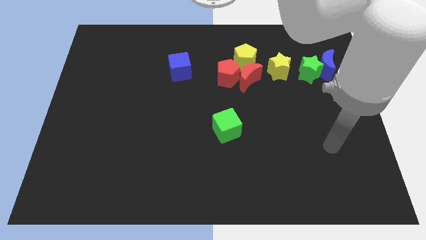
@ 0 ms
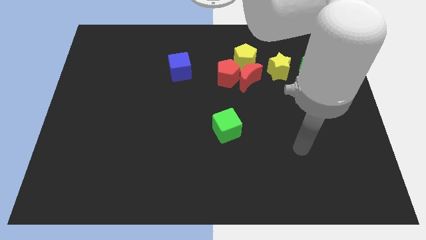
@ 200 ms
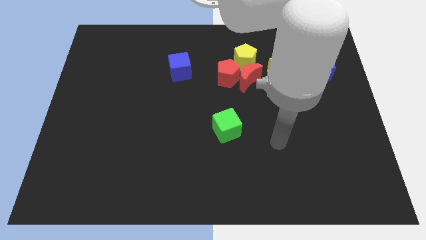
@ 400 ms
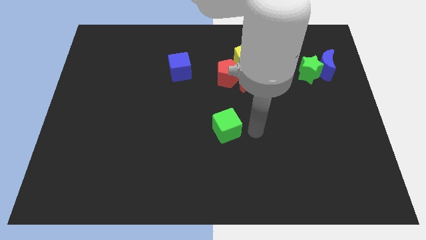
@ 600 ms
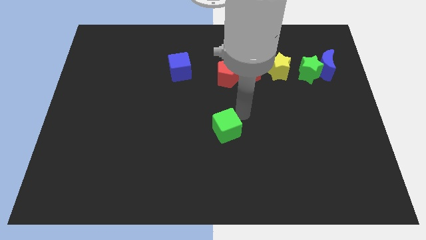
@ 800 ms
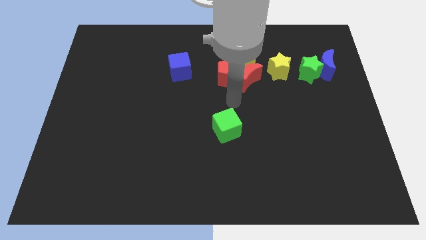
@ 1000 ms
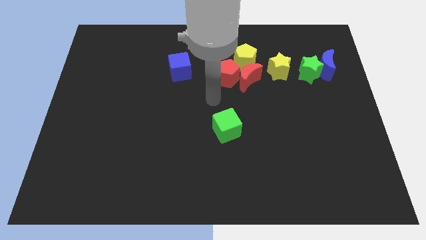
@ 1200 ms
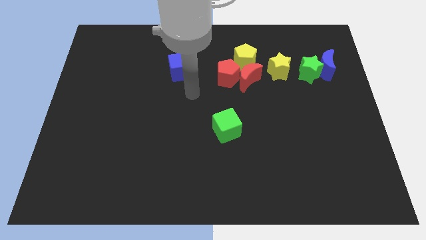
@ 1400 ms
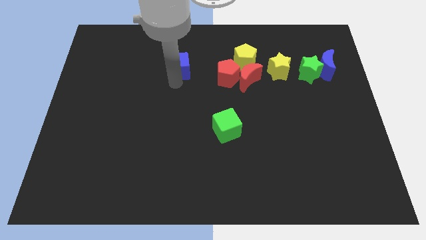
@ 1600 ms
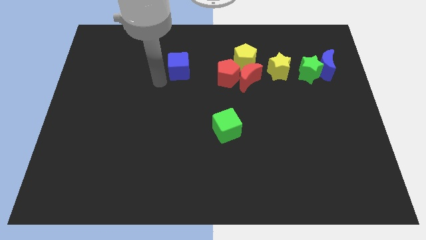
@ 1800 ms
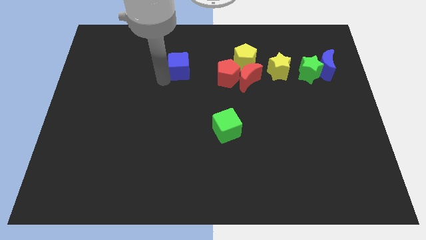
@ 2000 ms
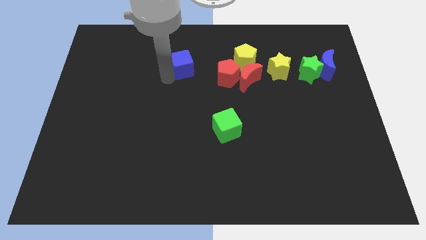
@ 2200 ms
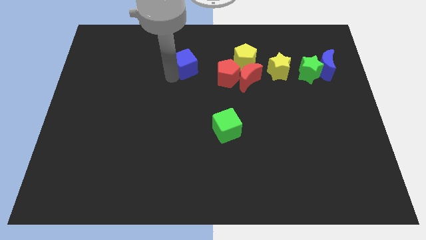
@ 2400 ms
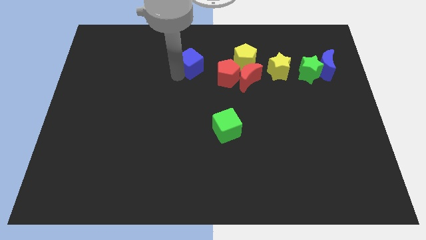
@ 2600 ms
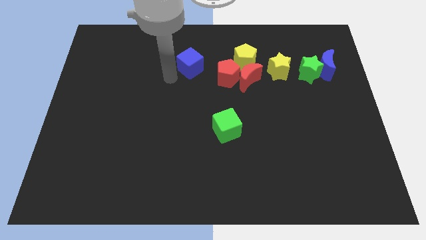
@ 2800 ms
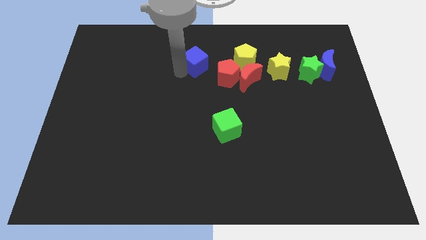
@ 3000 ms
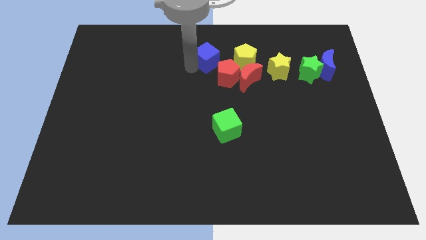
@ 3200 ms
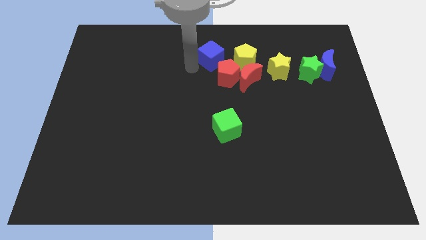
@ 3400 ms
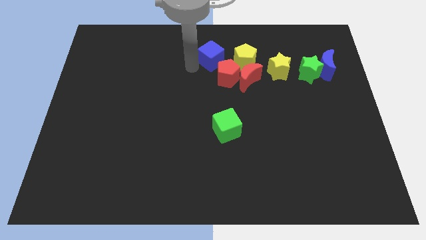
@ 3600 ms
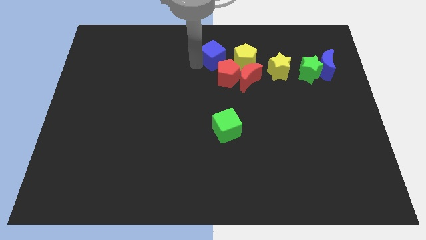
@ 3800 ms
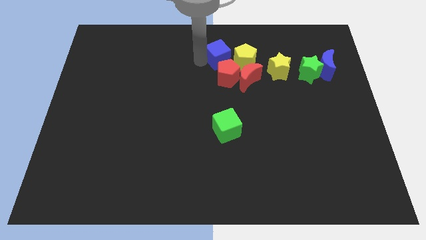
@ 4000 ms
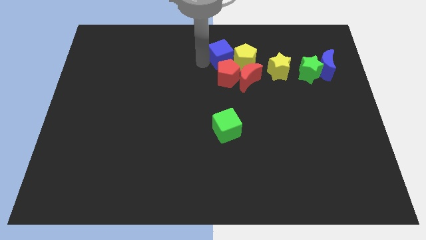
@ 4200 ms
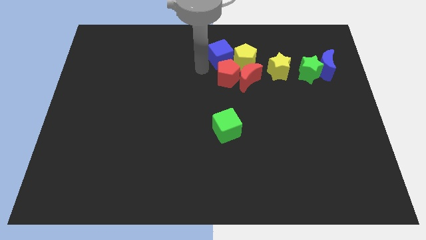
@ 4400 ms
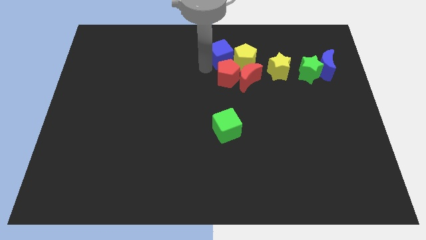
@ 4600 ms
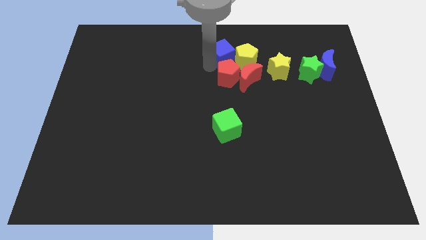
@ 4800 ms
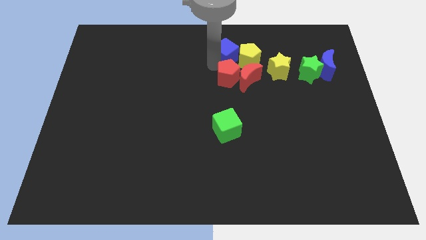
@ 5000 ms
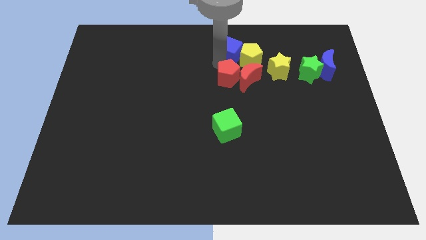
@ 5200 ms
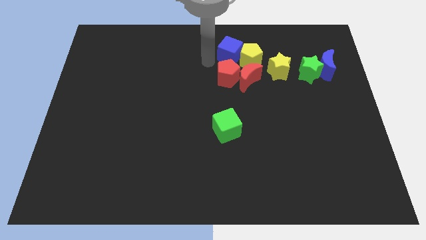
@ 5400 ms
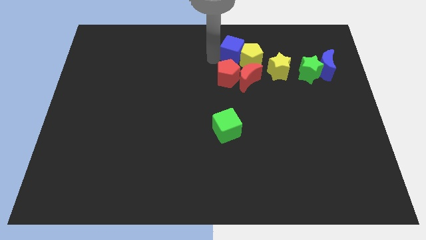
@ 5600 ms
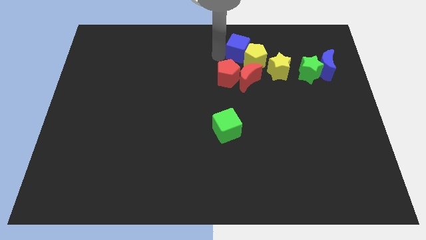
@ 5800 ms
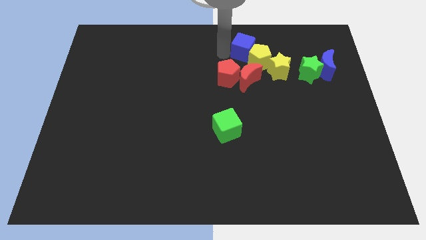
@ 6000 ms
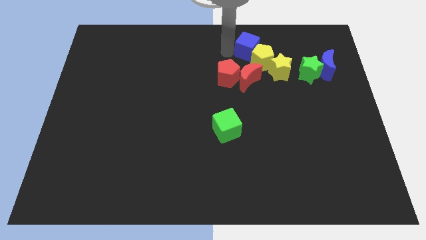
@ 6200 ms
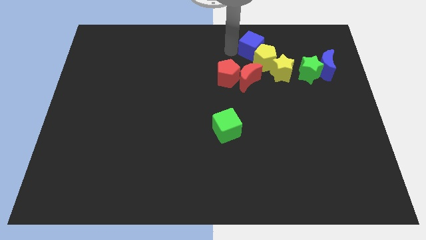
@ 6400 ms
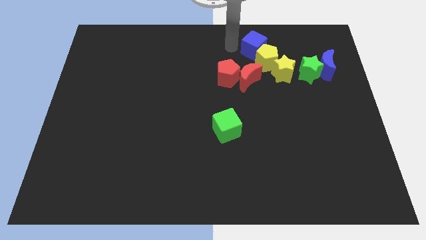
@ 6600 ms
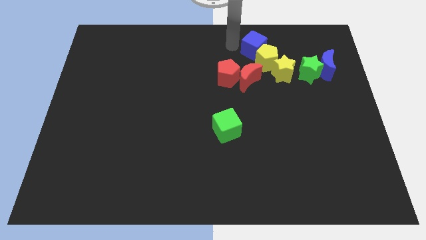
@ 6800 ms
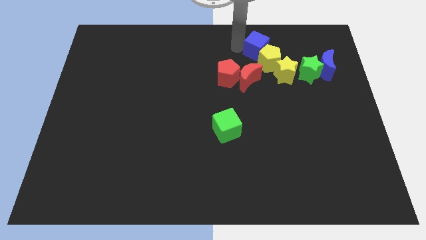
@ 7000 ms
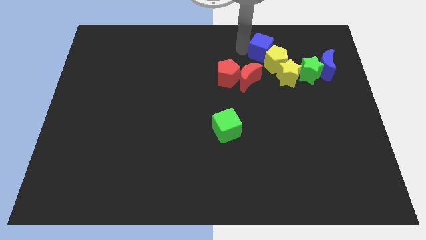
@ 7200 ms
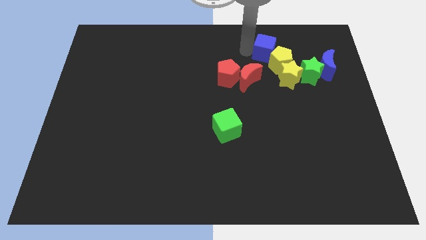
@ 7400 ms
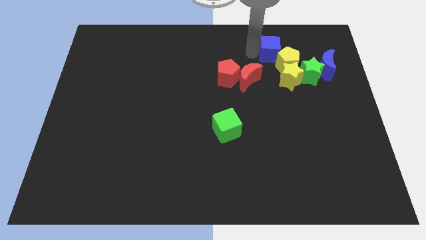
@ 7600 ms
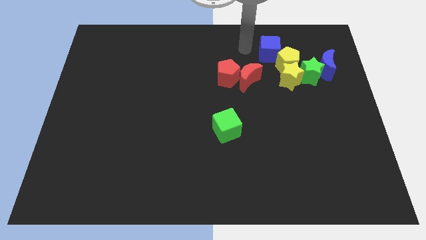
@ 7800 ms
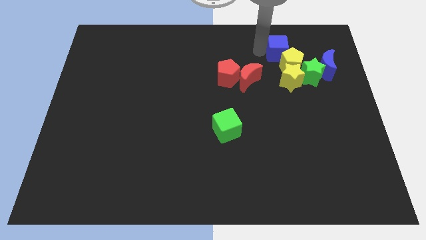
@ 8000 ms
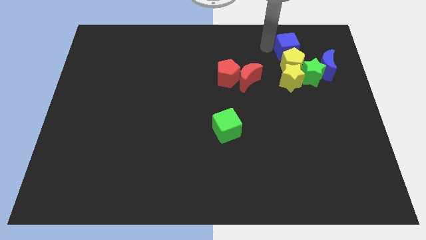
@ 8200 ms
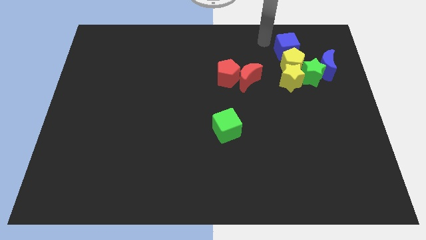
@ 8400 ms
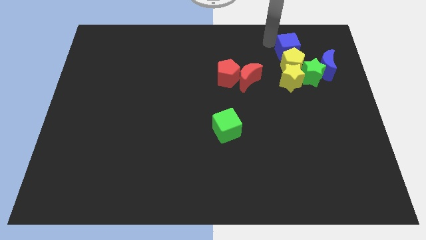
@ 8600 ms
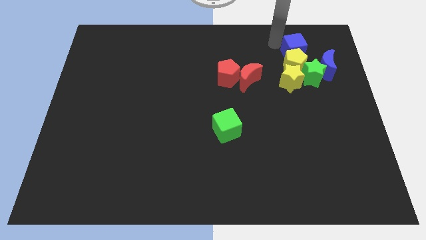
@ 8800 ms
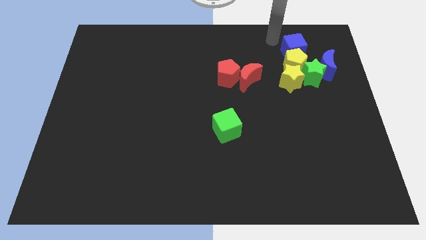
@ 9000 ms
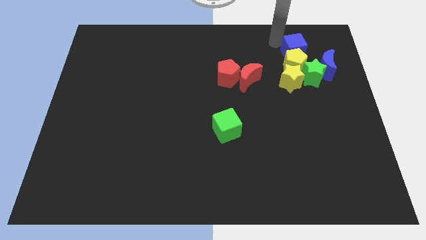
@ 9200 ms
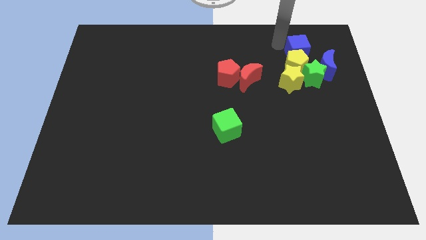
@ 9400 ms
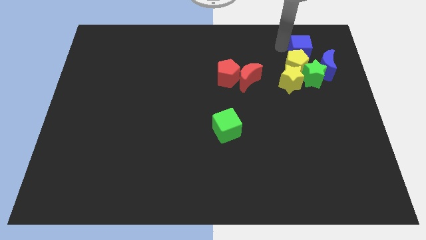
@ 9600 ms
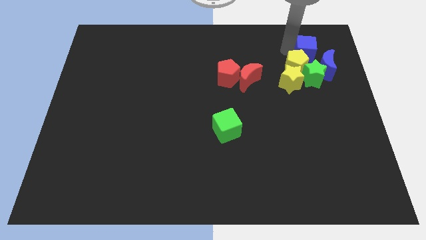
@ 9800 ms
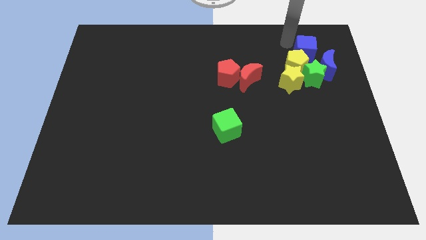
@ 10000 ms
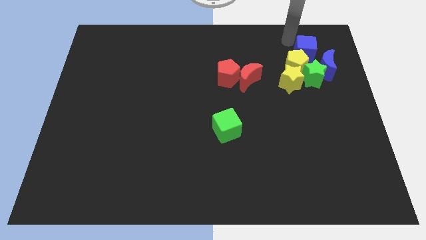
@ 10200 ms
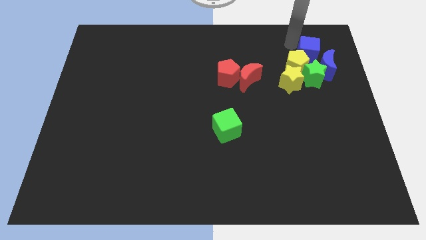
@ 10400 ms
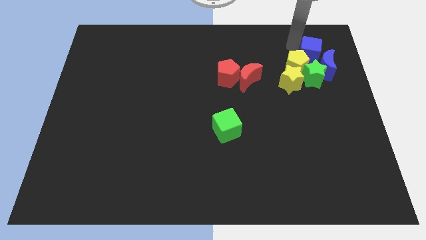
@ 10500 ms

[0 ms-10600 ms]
move the blue cube to the blue moon

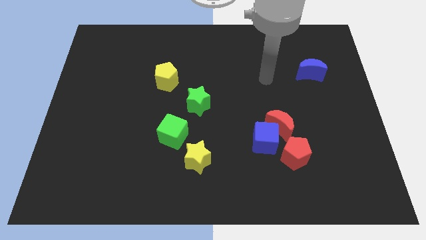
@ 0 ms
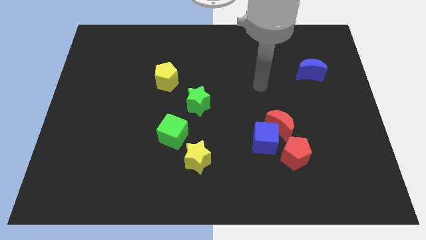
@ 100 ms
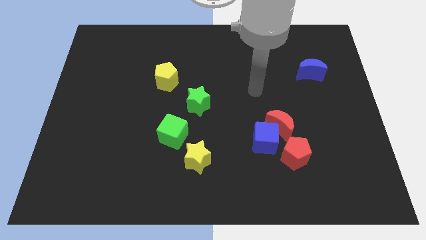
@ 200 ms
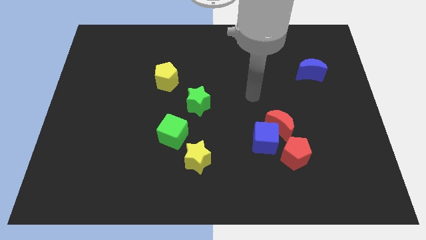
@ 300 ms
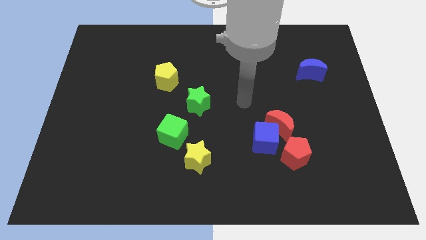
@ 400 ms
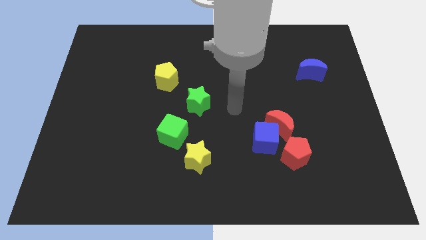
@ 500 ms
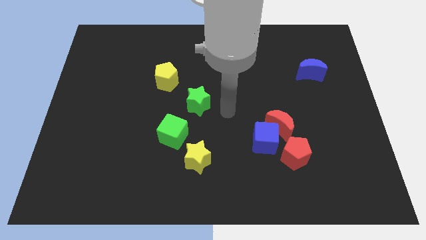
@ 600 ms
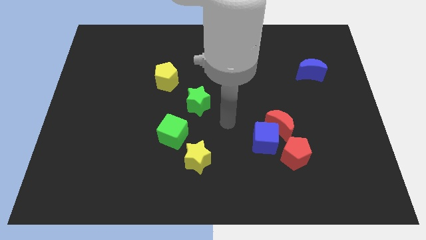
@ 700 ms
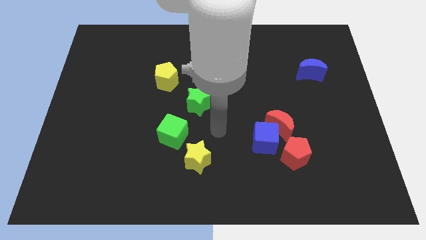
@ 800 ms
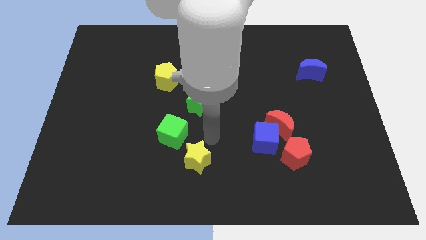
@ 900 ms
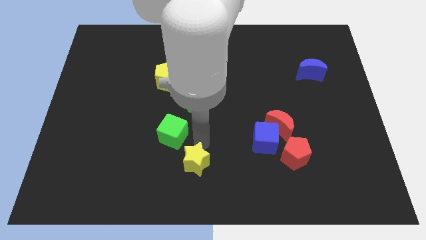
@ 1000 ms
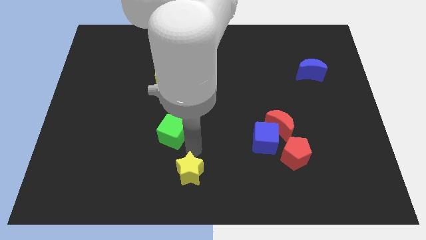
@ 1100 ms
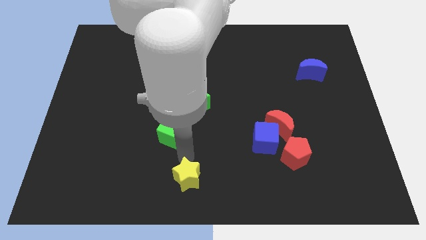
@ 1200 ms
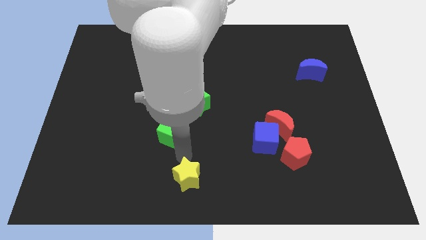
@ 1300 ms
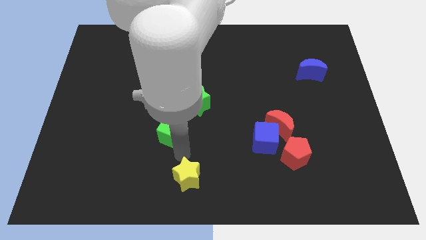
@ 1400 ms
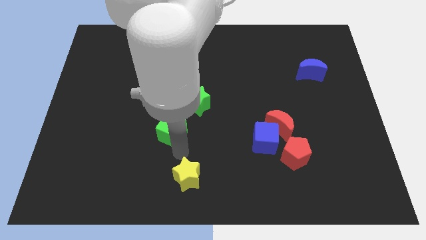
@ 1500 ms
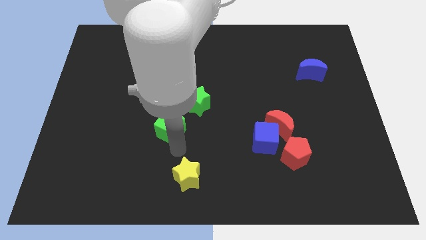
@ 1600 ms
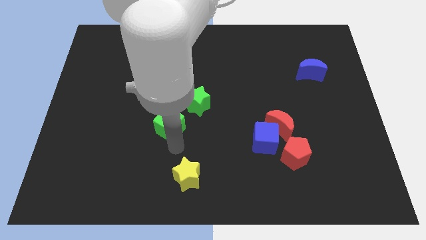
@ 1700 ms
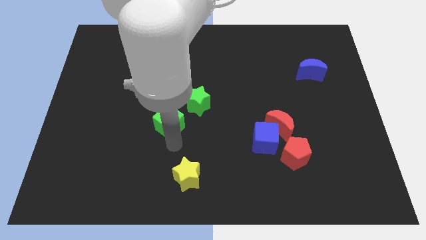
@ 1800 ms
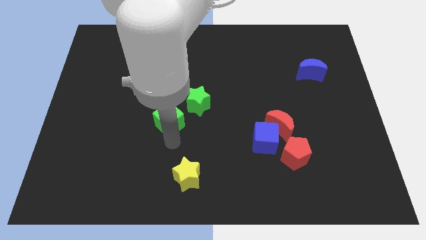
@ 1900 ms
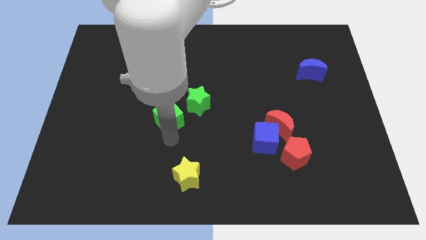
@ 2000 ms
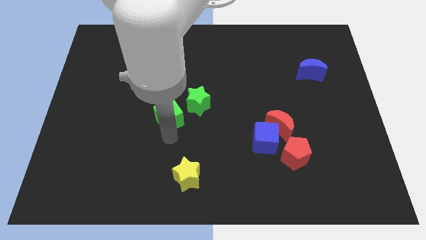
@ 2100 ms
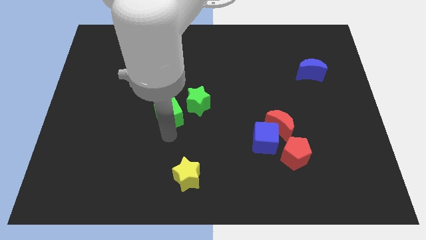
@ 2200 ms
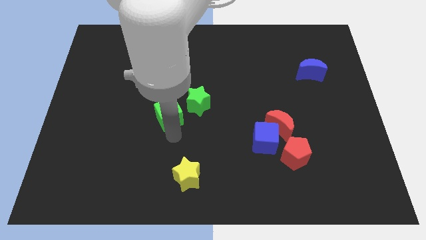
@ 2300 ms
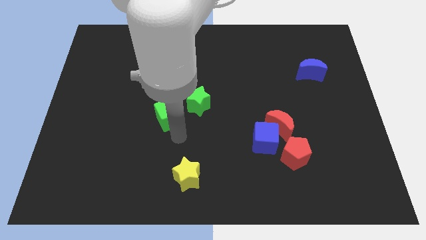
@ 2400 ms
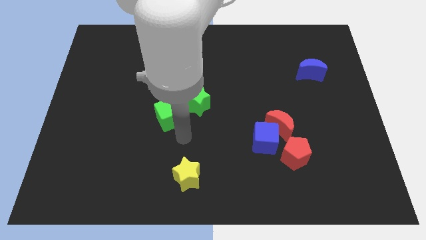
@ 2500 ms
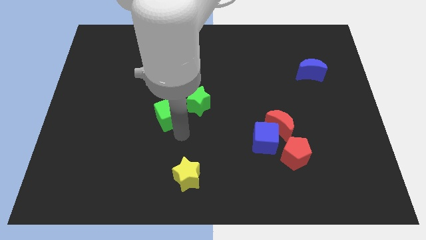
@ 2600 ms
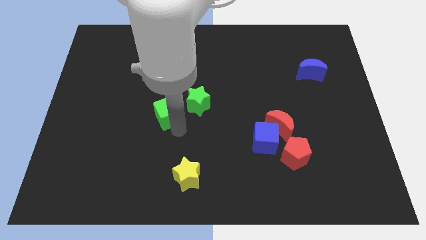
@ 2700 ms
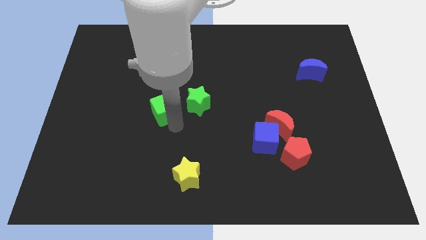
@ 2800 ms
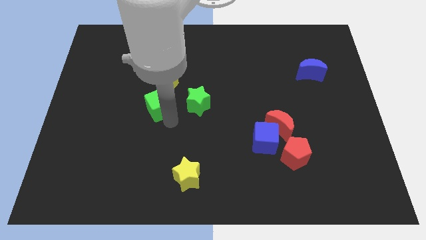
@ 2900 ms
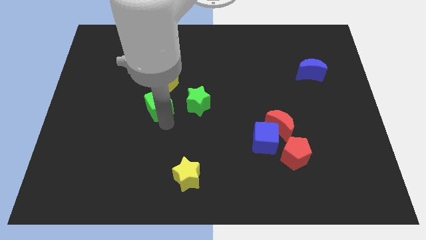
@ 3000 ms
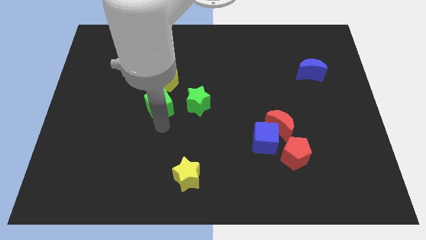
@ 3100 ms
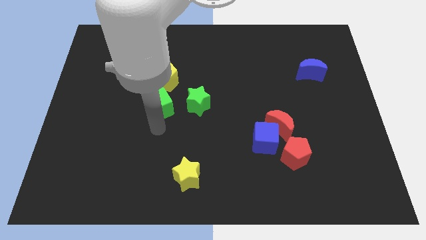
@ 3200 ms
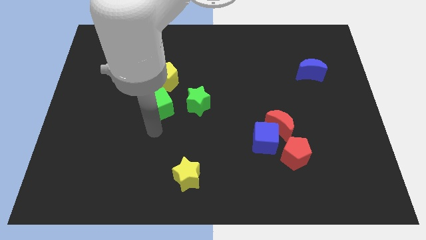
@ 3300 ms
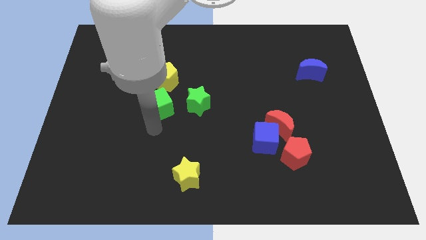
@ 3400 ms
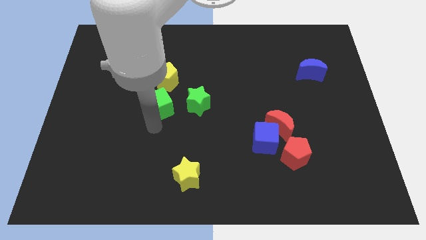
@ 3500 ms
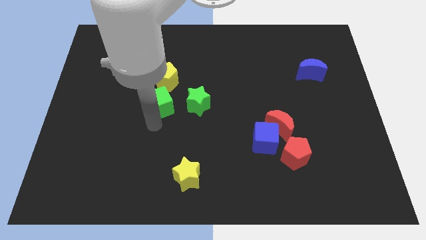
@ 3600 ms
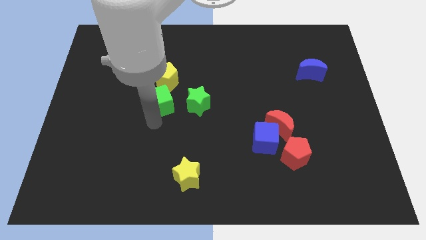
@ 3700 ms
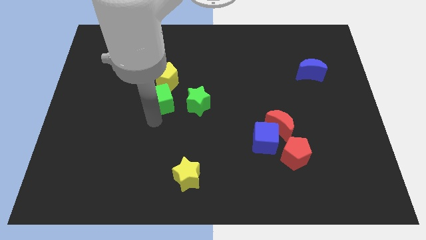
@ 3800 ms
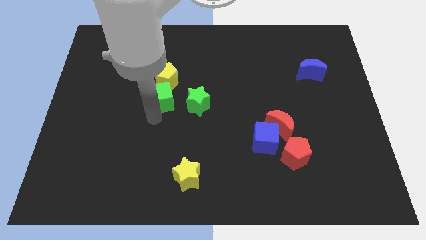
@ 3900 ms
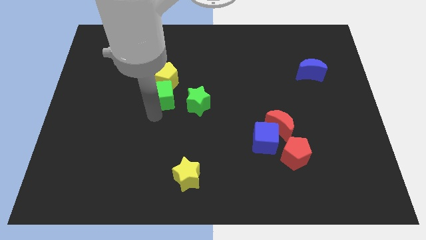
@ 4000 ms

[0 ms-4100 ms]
slide the green cube towards the yellow pentagon
